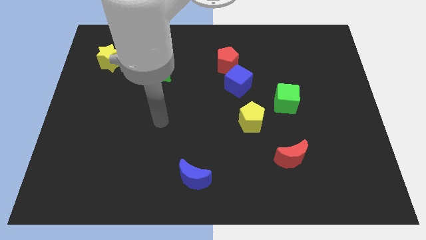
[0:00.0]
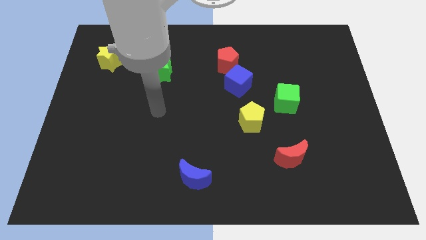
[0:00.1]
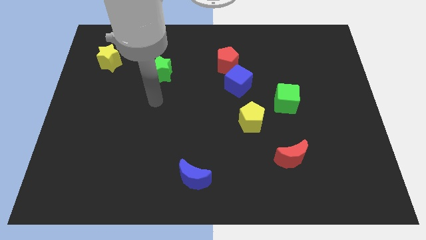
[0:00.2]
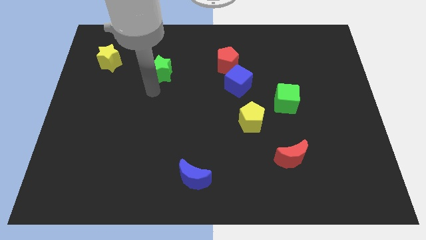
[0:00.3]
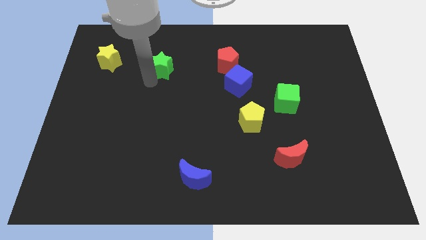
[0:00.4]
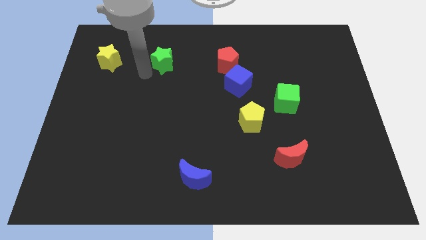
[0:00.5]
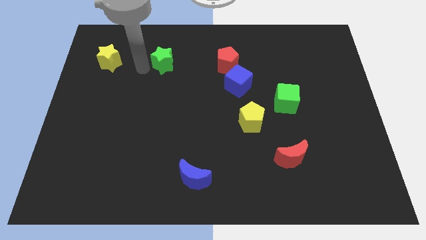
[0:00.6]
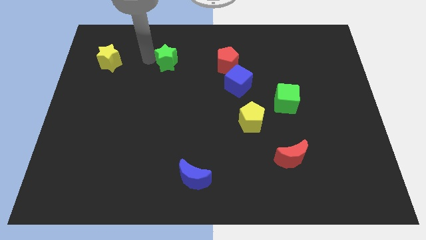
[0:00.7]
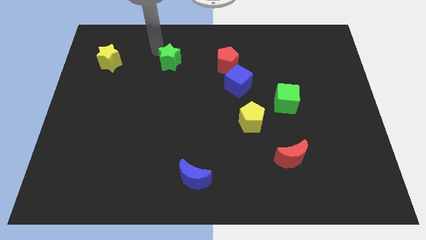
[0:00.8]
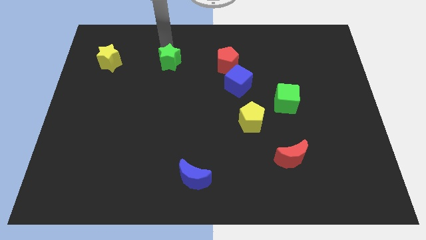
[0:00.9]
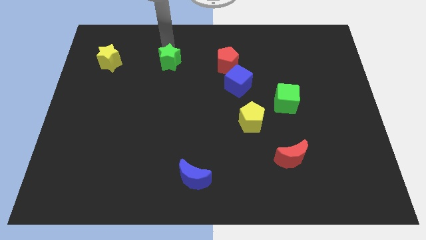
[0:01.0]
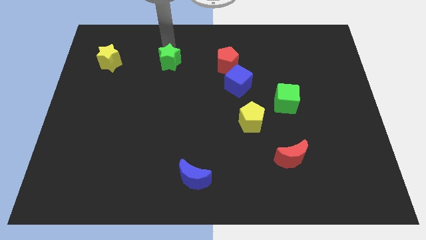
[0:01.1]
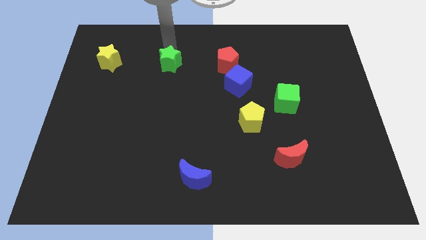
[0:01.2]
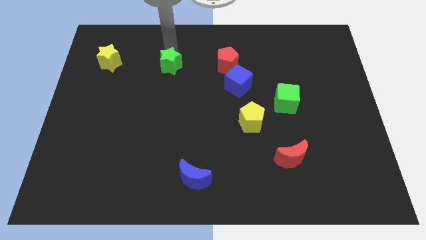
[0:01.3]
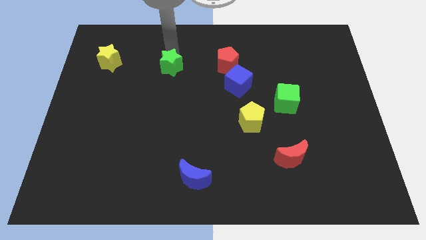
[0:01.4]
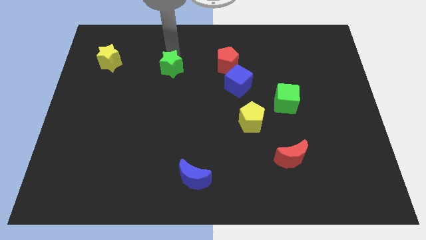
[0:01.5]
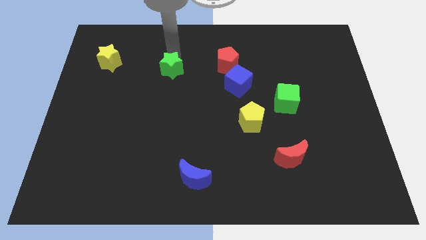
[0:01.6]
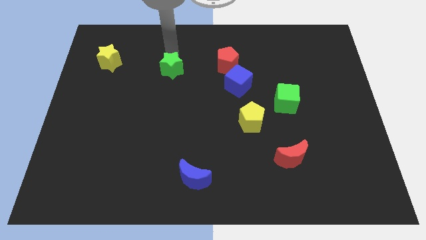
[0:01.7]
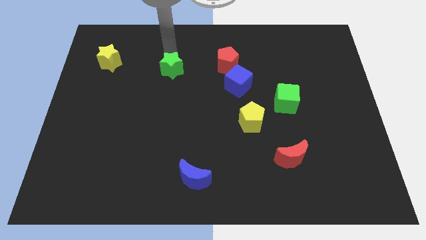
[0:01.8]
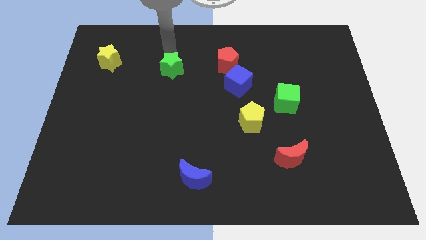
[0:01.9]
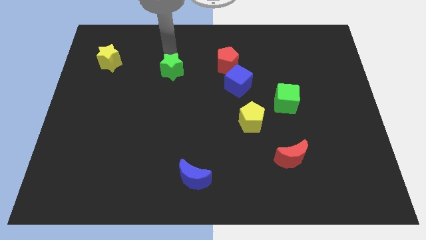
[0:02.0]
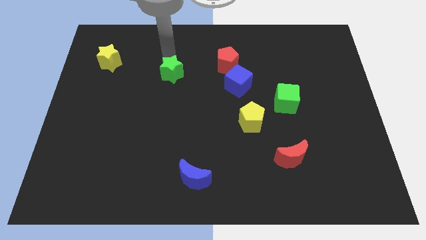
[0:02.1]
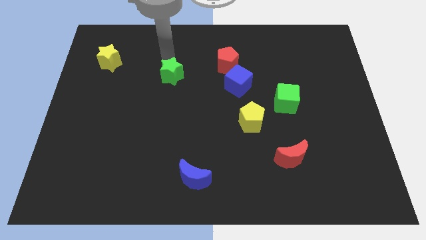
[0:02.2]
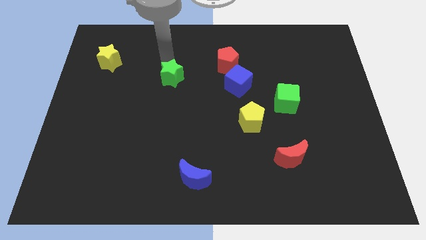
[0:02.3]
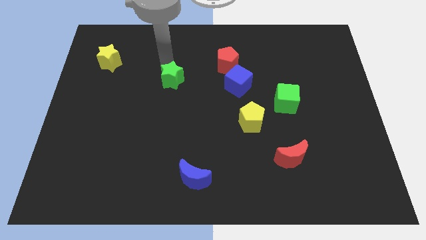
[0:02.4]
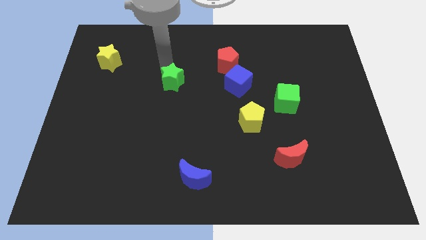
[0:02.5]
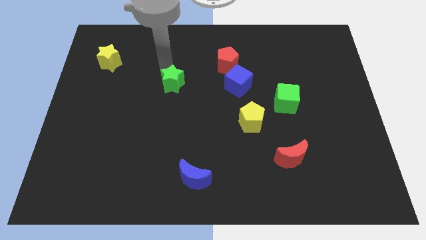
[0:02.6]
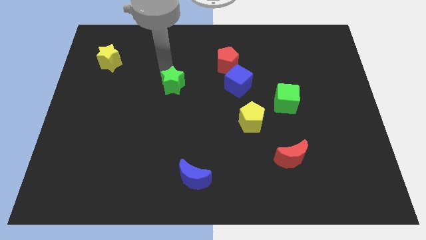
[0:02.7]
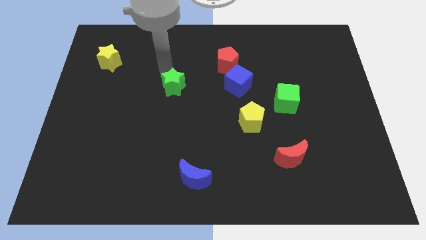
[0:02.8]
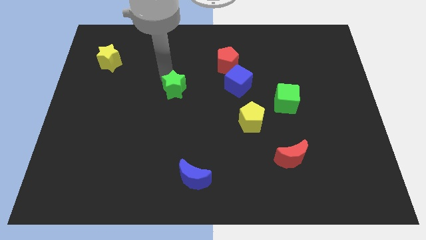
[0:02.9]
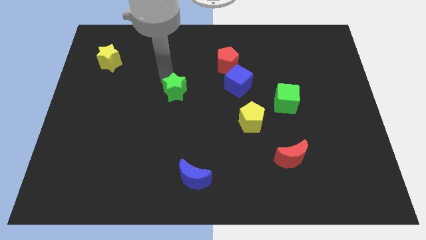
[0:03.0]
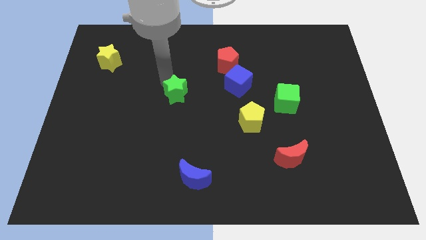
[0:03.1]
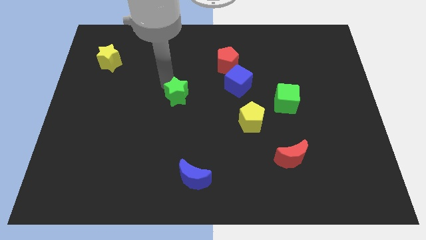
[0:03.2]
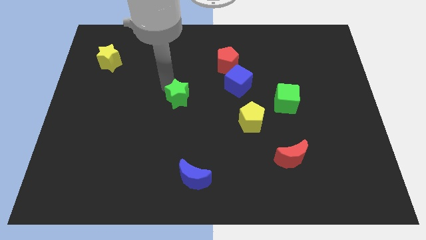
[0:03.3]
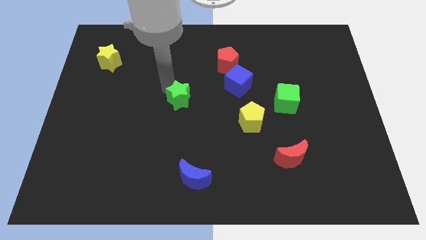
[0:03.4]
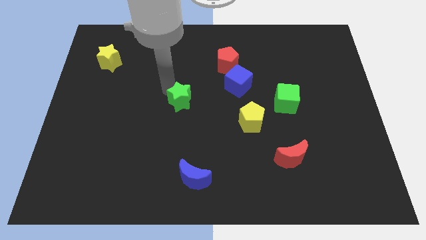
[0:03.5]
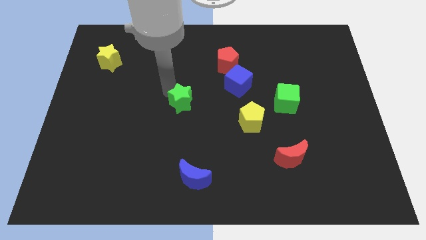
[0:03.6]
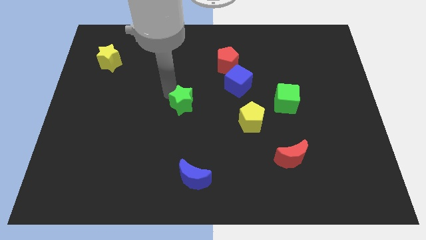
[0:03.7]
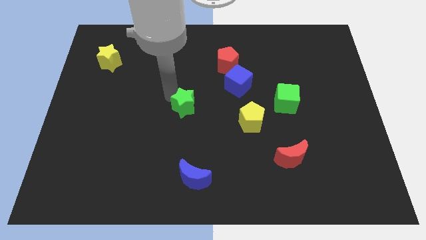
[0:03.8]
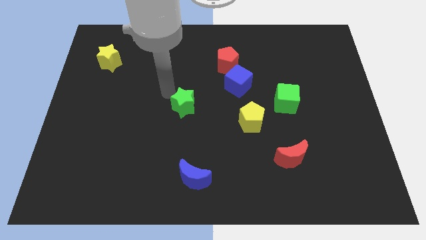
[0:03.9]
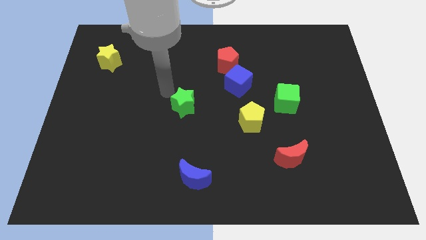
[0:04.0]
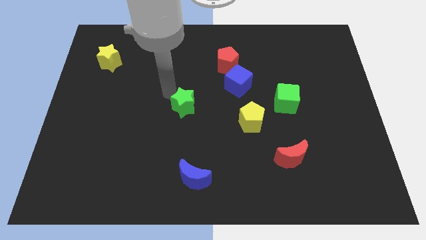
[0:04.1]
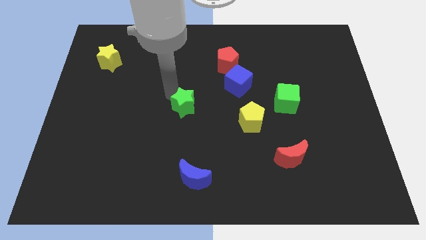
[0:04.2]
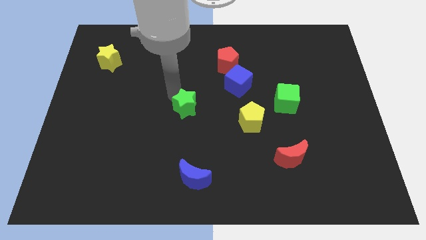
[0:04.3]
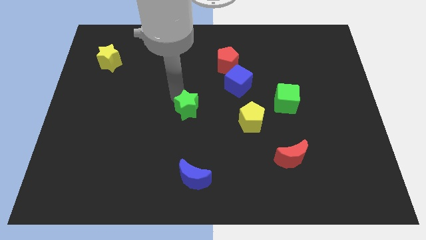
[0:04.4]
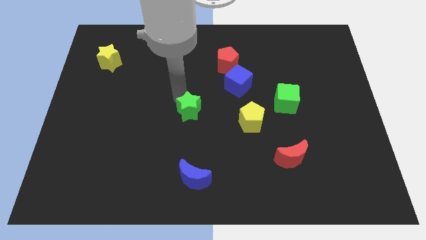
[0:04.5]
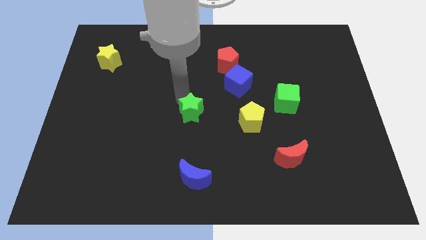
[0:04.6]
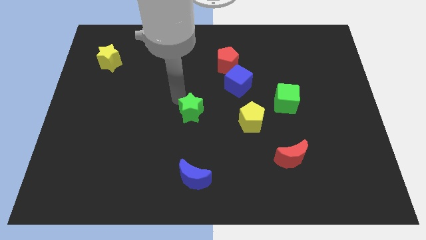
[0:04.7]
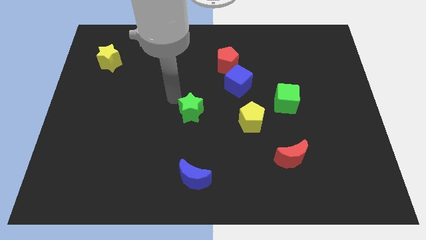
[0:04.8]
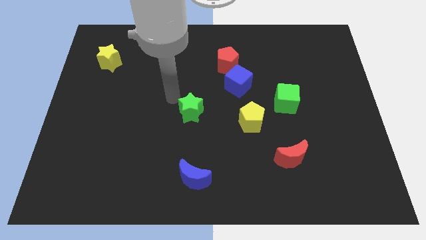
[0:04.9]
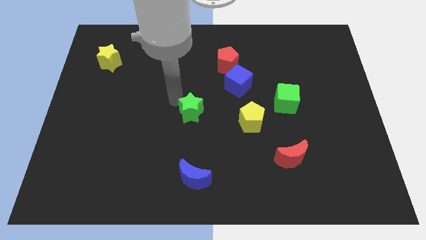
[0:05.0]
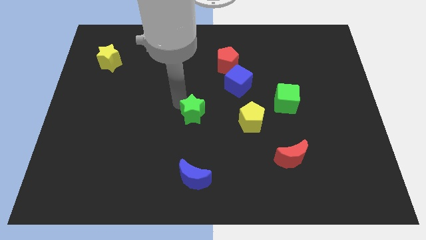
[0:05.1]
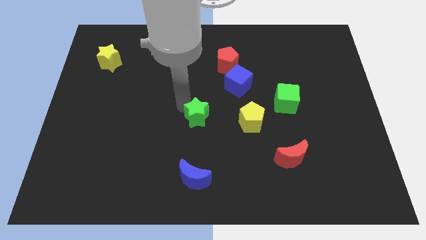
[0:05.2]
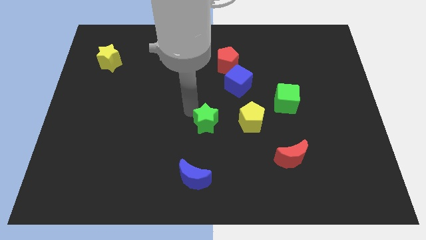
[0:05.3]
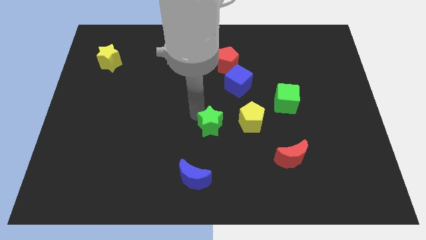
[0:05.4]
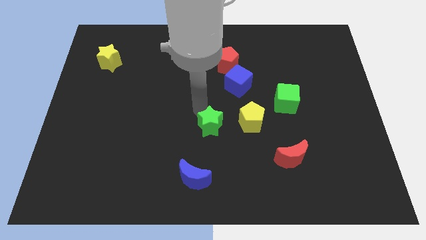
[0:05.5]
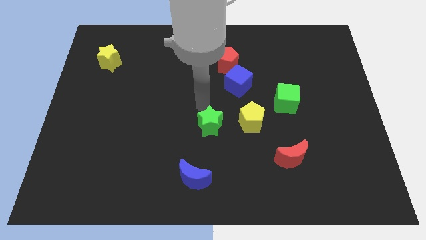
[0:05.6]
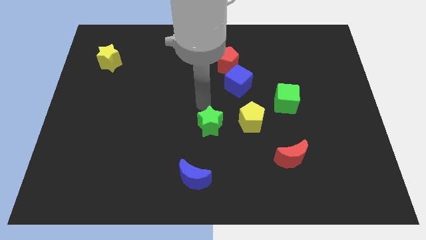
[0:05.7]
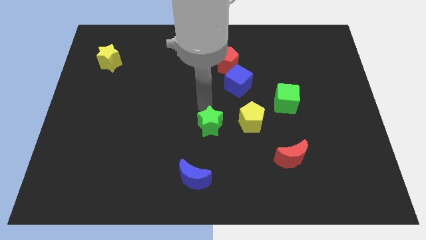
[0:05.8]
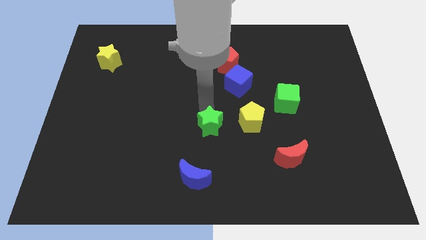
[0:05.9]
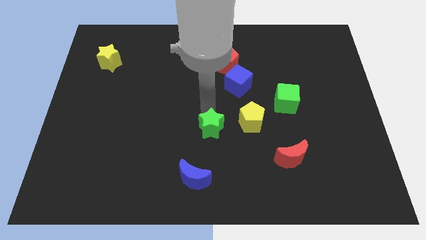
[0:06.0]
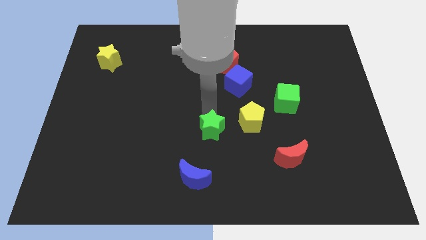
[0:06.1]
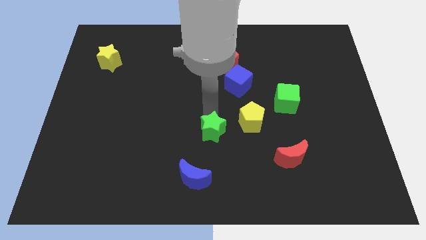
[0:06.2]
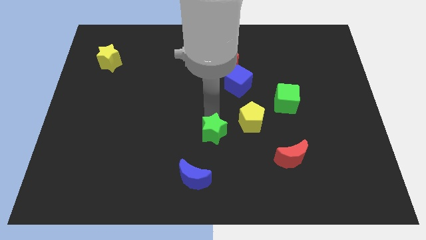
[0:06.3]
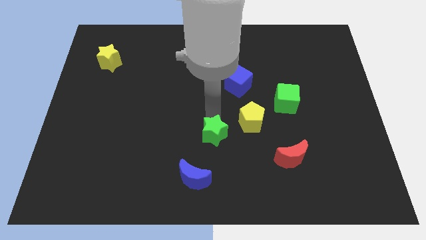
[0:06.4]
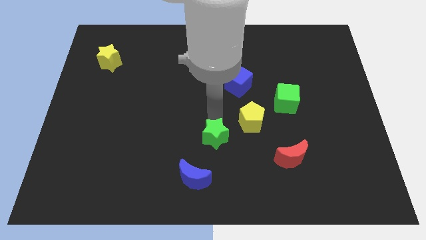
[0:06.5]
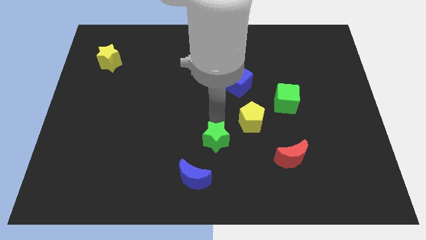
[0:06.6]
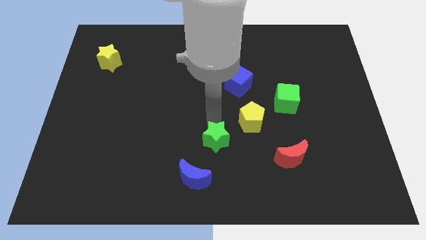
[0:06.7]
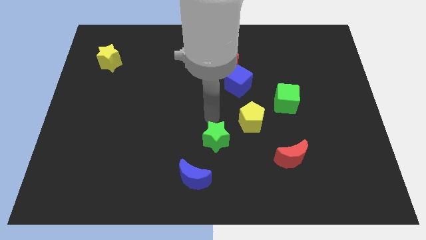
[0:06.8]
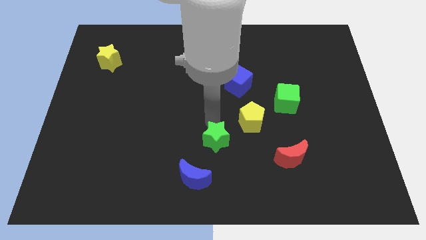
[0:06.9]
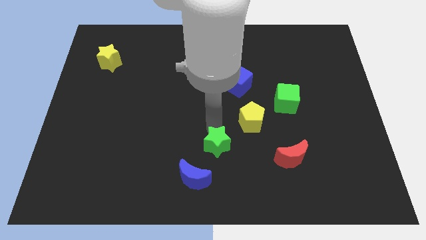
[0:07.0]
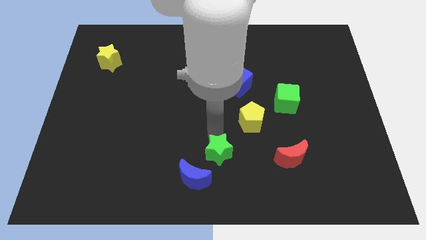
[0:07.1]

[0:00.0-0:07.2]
put the green star to the bottom
